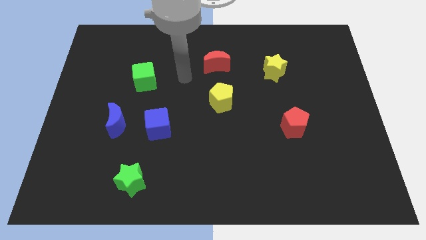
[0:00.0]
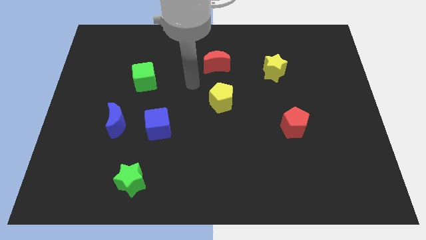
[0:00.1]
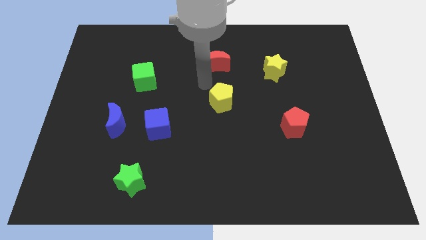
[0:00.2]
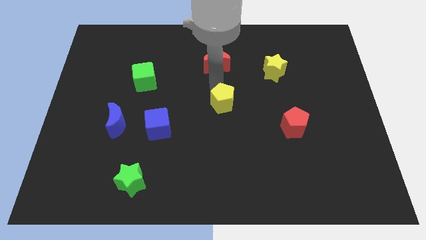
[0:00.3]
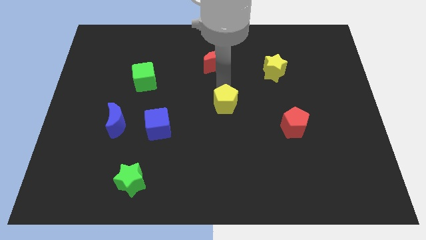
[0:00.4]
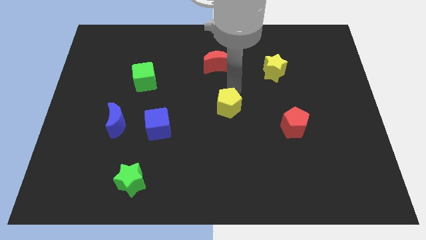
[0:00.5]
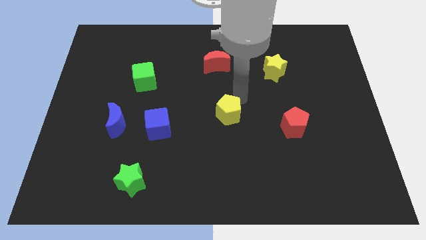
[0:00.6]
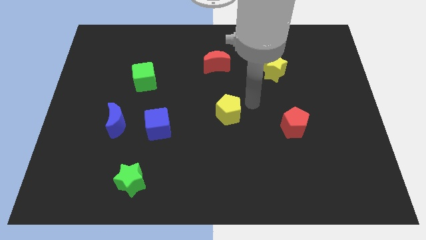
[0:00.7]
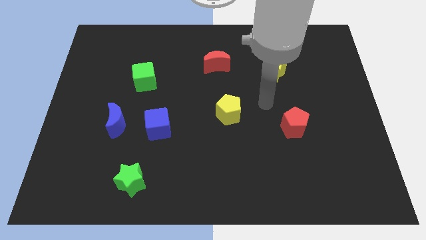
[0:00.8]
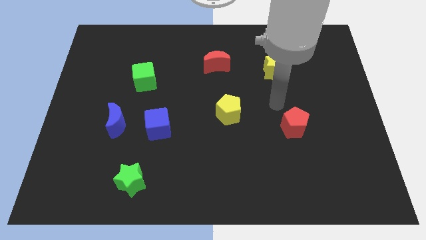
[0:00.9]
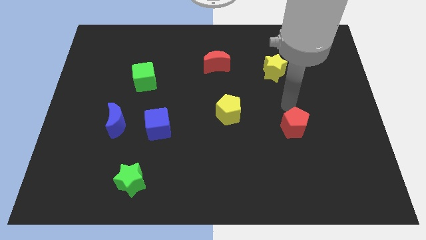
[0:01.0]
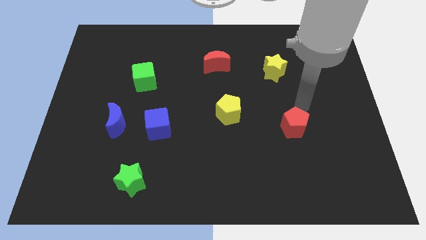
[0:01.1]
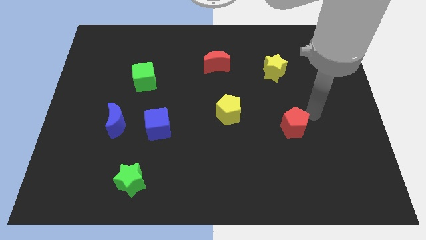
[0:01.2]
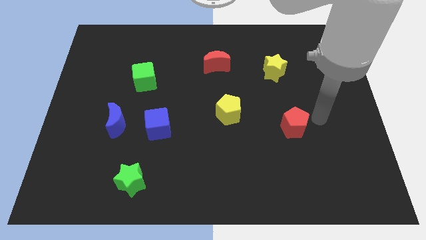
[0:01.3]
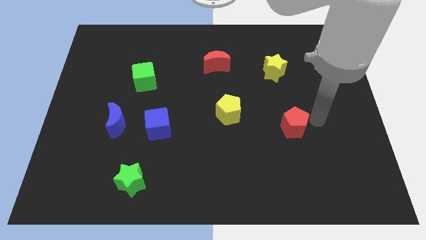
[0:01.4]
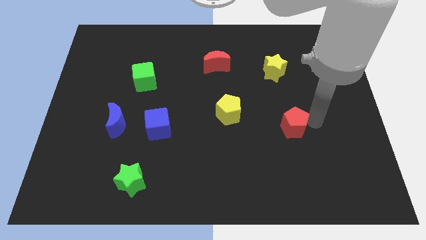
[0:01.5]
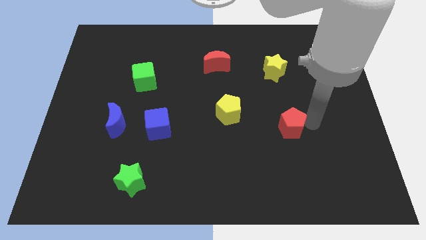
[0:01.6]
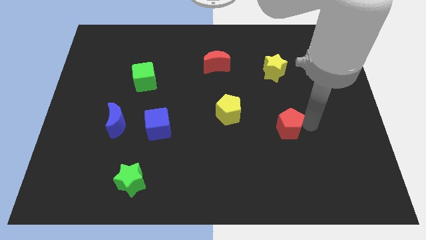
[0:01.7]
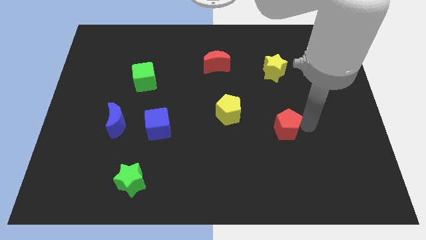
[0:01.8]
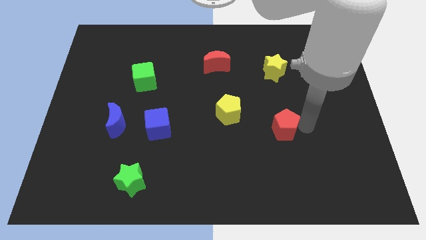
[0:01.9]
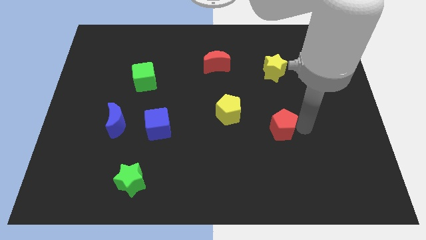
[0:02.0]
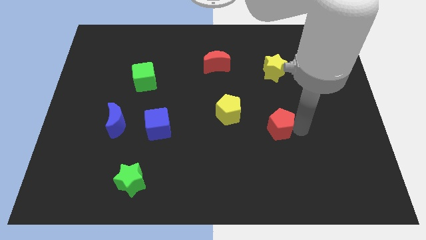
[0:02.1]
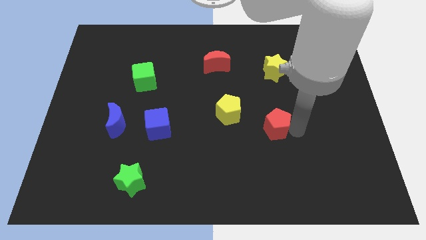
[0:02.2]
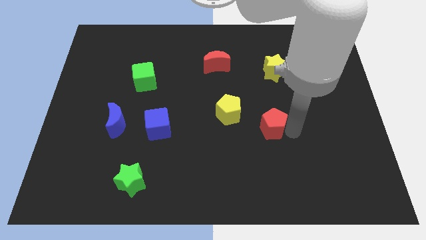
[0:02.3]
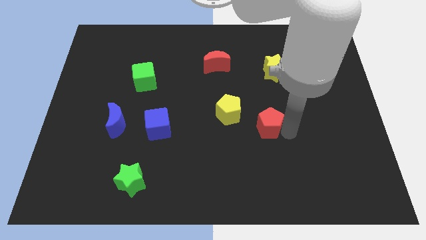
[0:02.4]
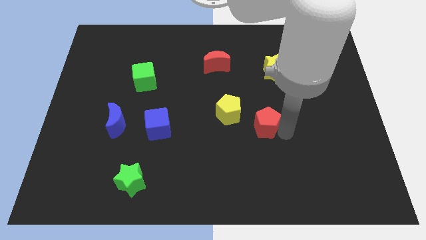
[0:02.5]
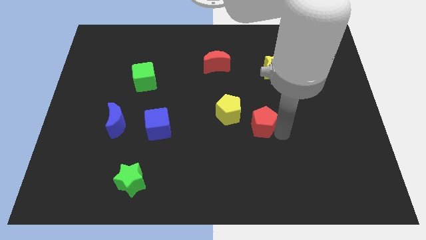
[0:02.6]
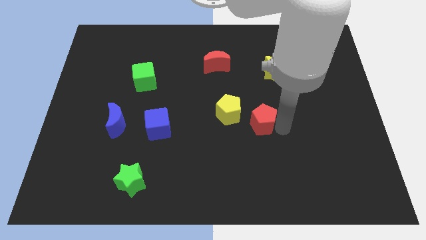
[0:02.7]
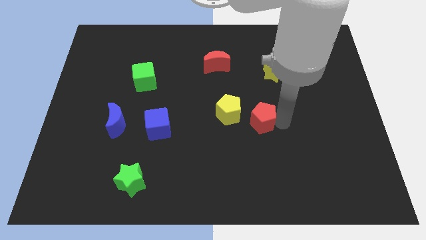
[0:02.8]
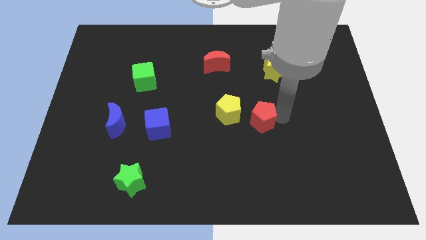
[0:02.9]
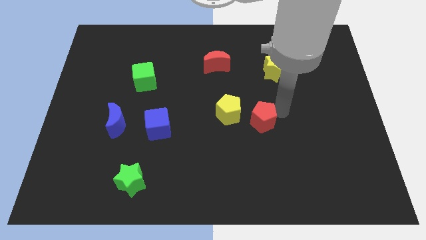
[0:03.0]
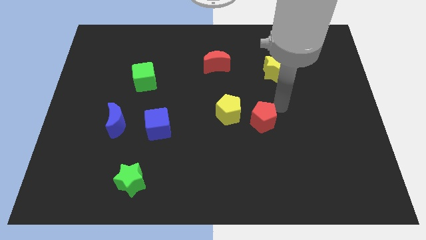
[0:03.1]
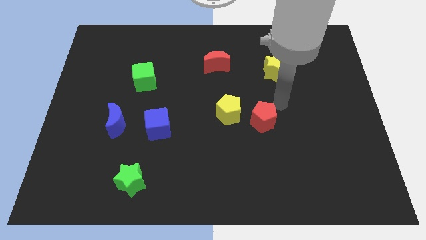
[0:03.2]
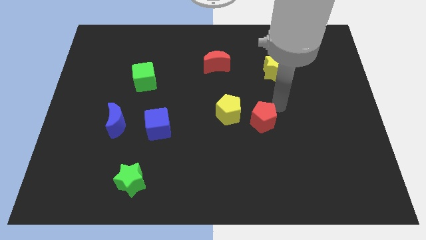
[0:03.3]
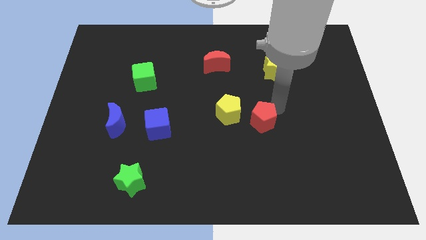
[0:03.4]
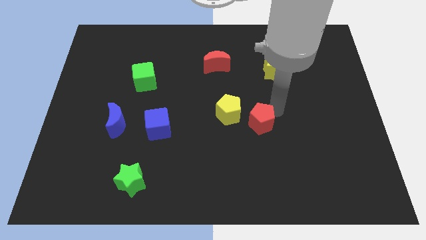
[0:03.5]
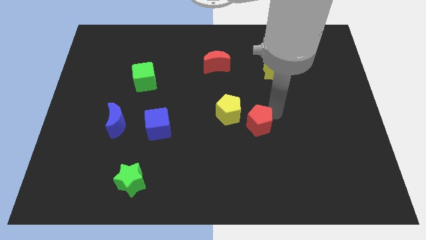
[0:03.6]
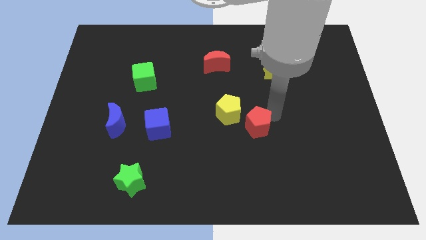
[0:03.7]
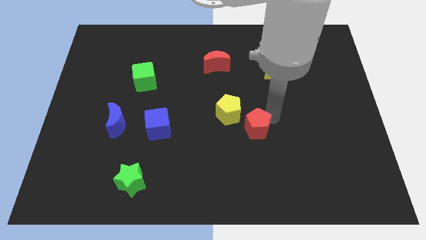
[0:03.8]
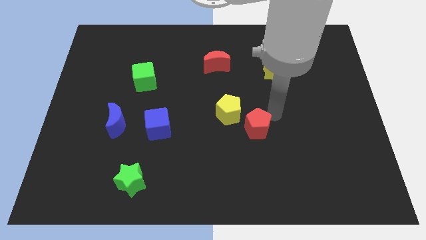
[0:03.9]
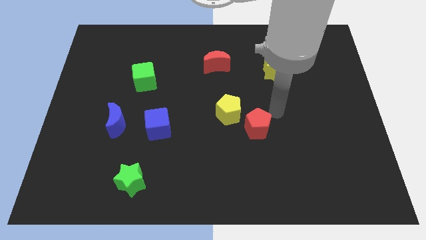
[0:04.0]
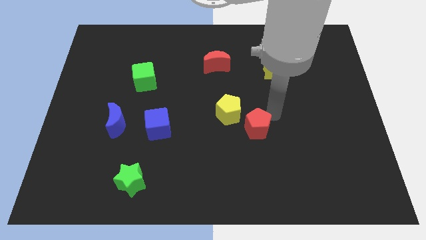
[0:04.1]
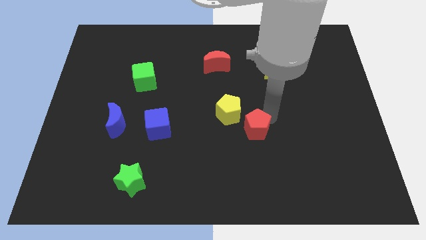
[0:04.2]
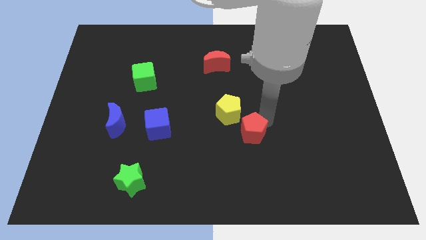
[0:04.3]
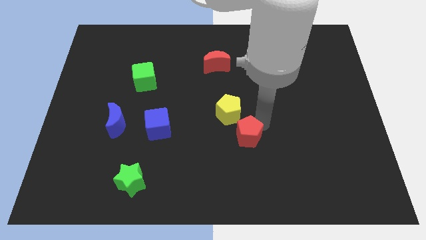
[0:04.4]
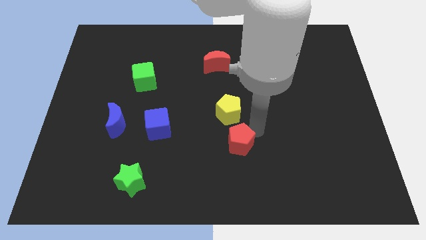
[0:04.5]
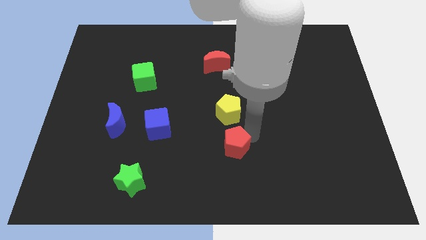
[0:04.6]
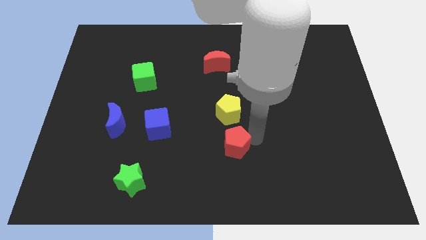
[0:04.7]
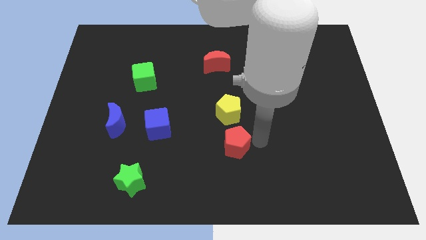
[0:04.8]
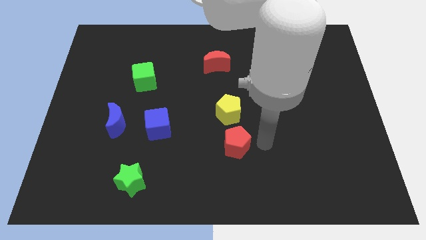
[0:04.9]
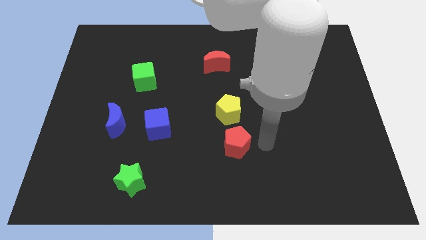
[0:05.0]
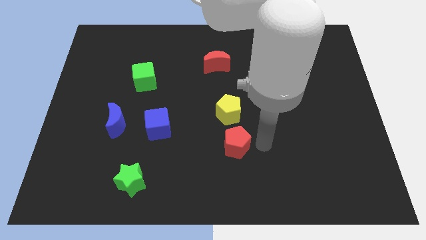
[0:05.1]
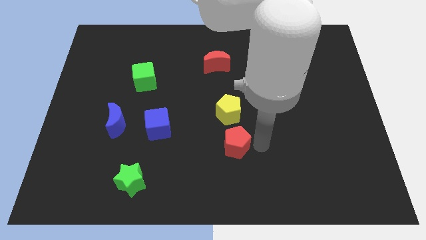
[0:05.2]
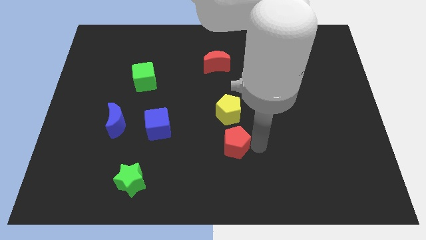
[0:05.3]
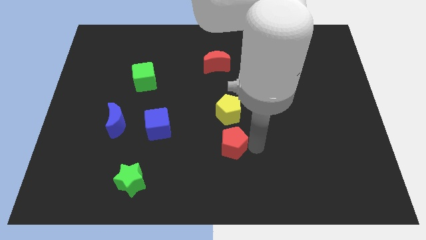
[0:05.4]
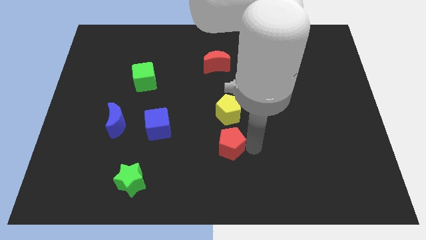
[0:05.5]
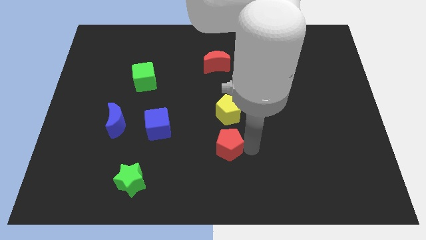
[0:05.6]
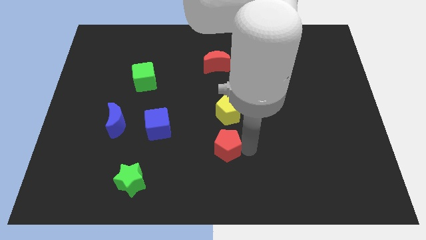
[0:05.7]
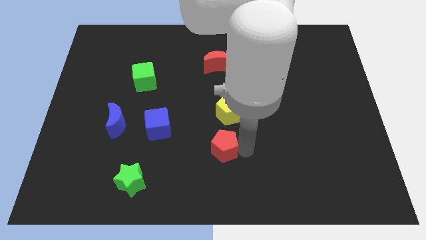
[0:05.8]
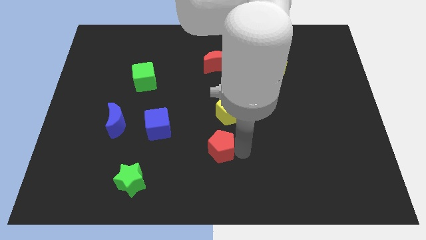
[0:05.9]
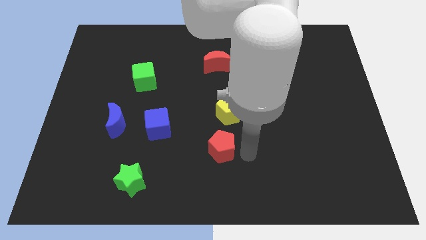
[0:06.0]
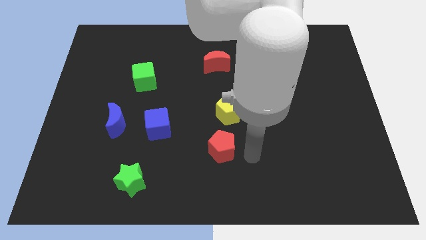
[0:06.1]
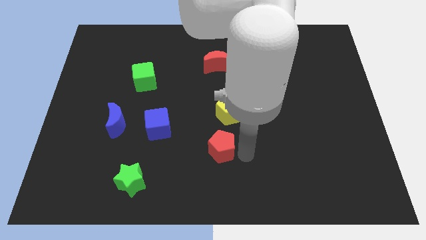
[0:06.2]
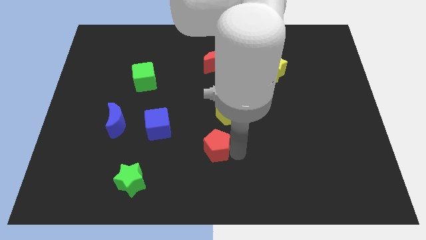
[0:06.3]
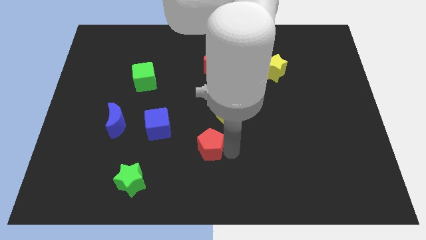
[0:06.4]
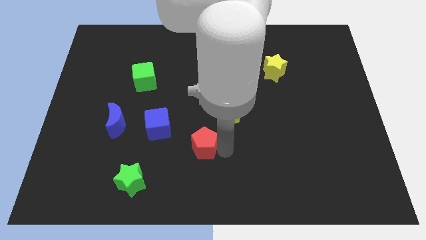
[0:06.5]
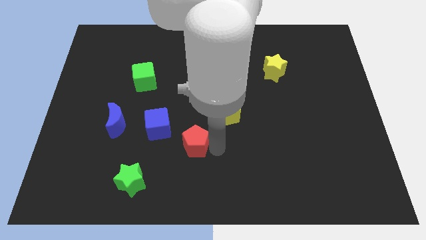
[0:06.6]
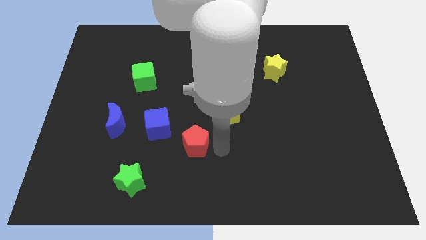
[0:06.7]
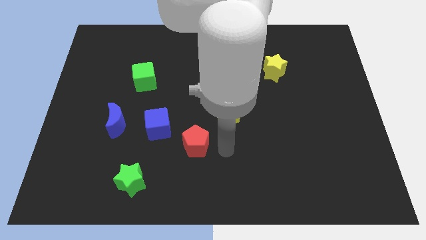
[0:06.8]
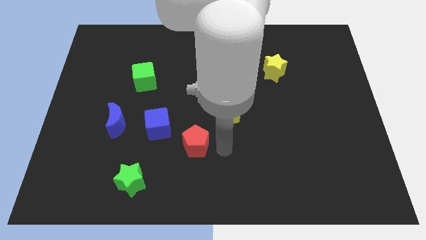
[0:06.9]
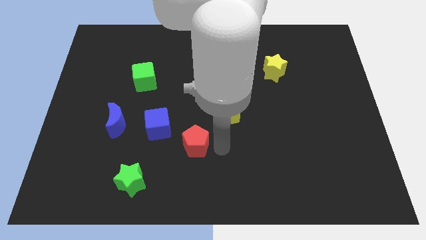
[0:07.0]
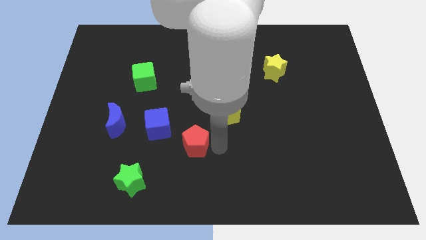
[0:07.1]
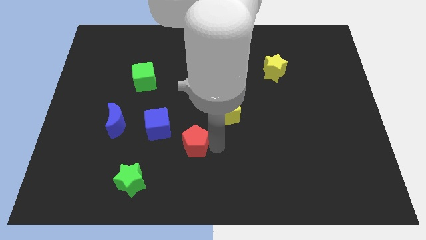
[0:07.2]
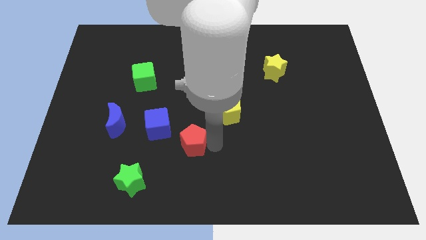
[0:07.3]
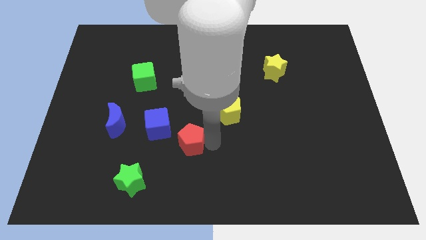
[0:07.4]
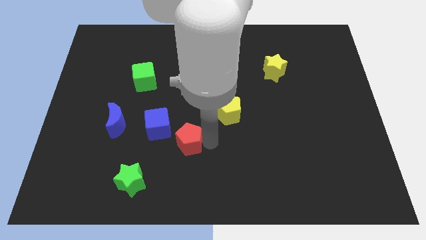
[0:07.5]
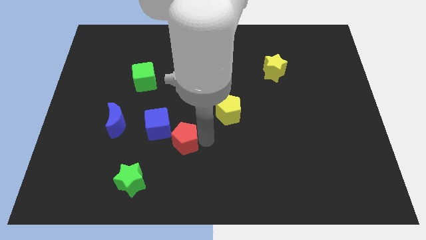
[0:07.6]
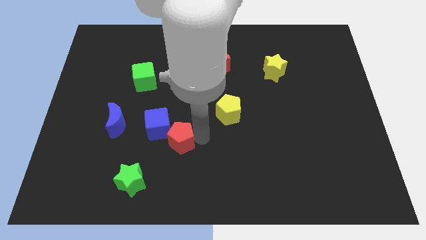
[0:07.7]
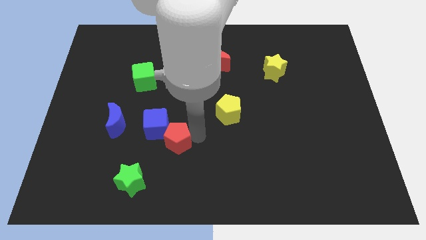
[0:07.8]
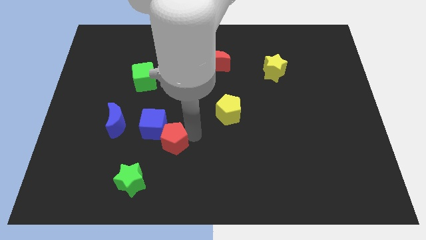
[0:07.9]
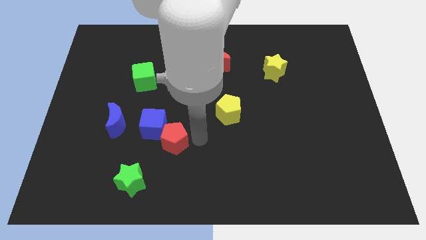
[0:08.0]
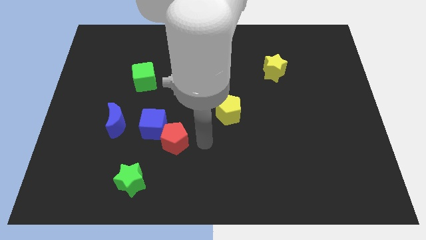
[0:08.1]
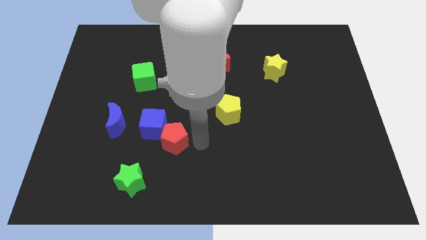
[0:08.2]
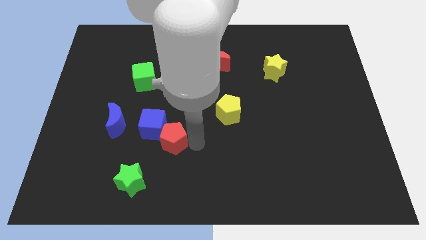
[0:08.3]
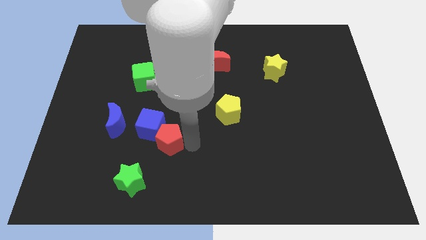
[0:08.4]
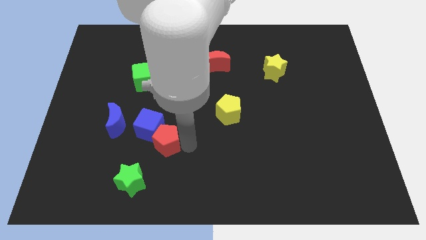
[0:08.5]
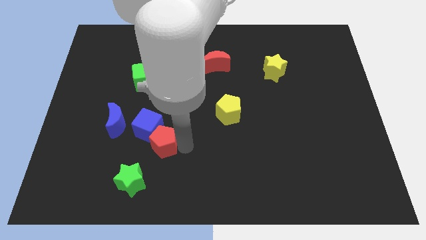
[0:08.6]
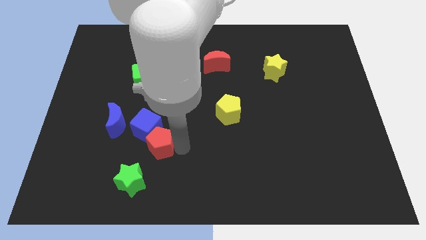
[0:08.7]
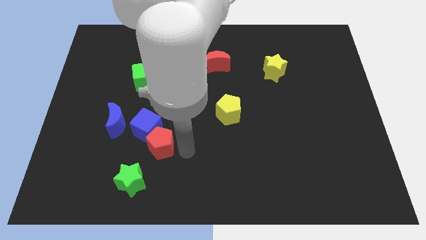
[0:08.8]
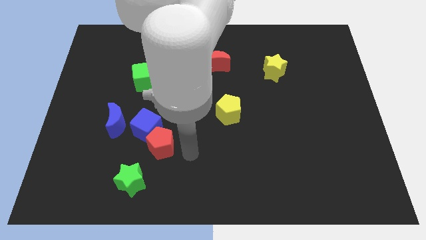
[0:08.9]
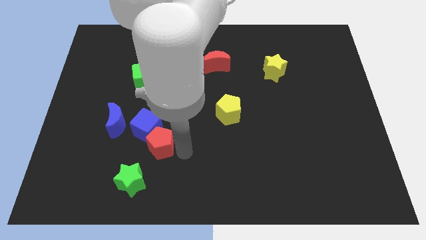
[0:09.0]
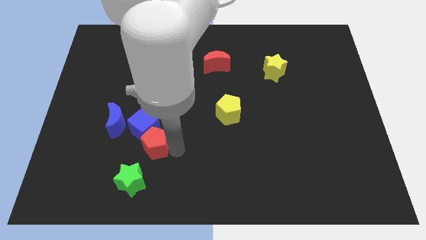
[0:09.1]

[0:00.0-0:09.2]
move the red pentagon to the top side of the green star
